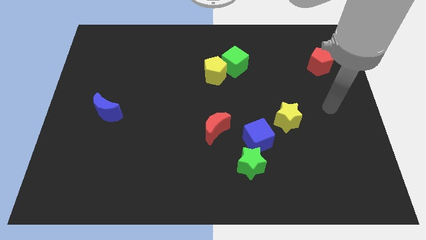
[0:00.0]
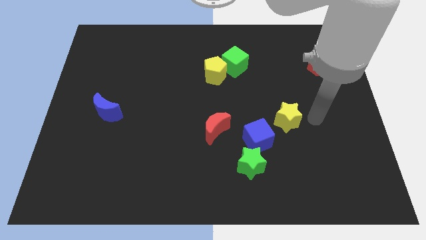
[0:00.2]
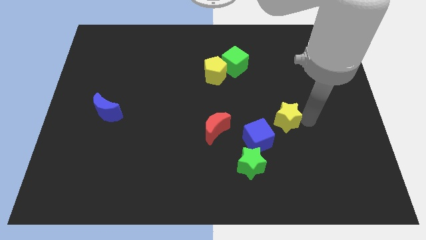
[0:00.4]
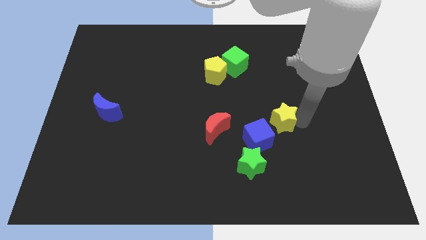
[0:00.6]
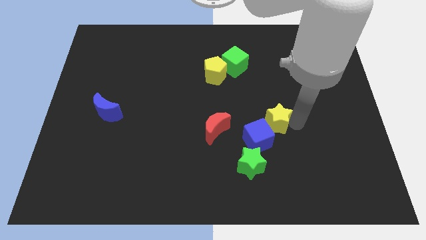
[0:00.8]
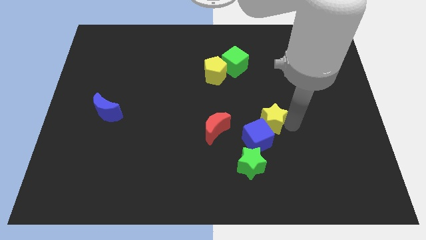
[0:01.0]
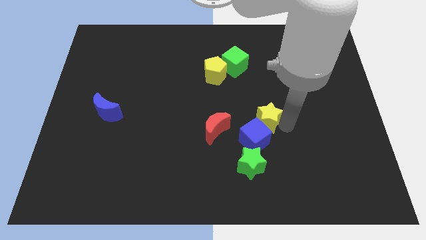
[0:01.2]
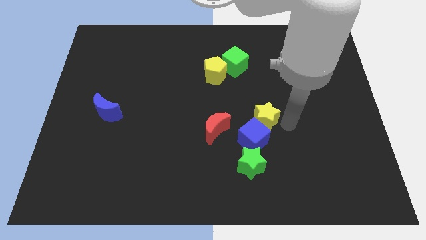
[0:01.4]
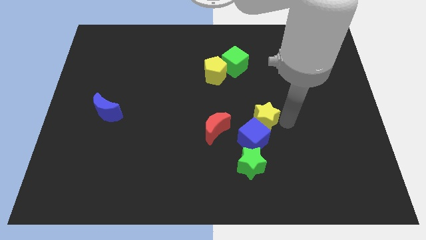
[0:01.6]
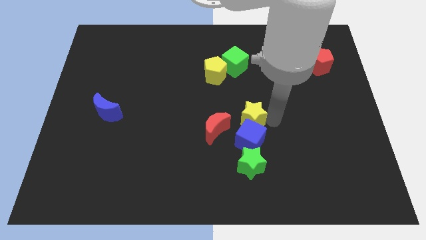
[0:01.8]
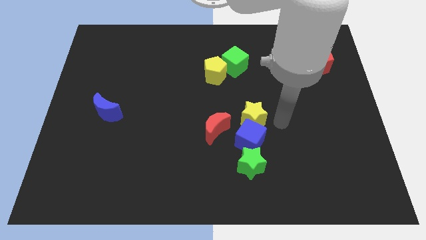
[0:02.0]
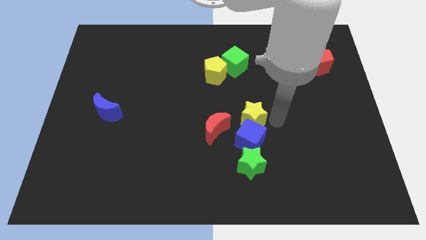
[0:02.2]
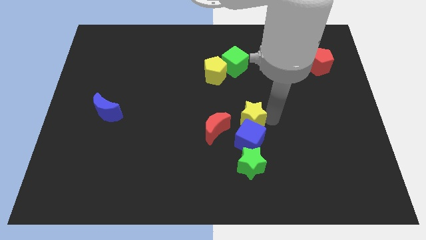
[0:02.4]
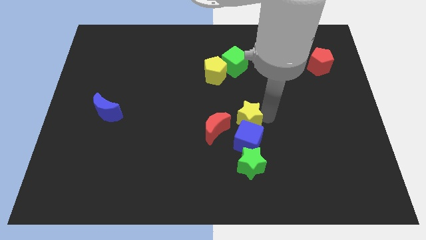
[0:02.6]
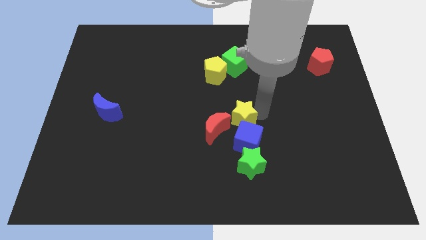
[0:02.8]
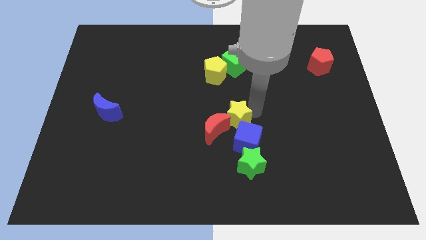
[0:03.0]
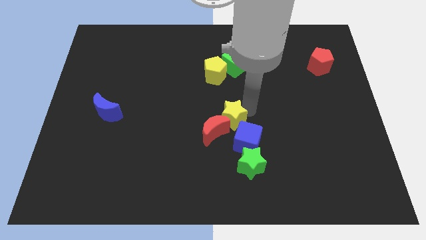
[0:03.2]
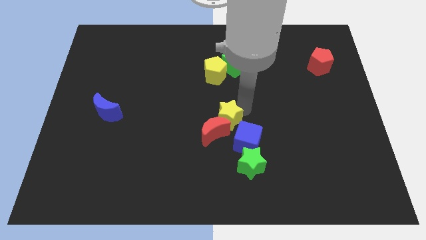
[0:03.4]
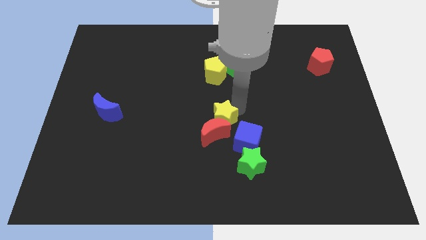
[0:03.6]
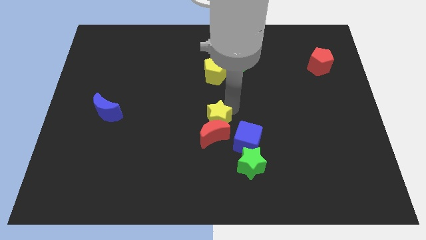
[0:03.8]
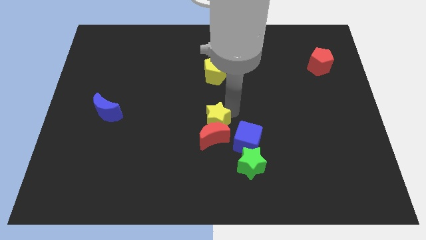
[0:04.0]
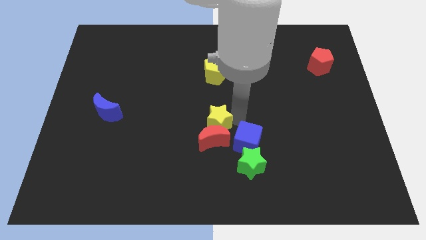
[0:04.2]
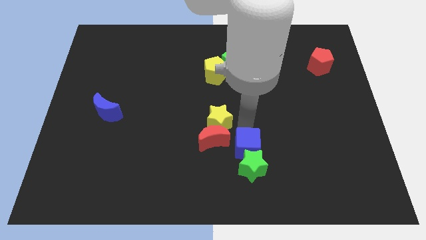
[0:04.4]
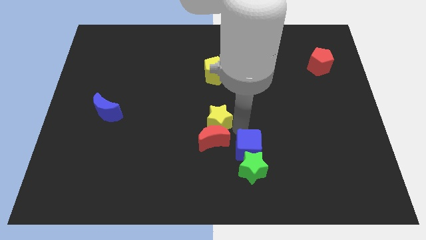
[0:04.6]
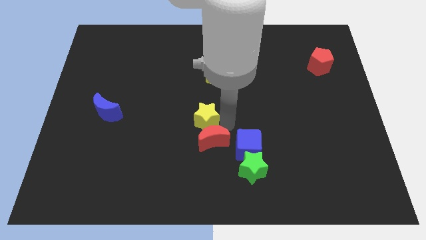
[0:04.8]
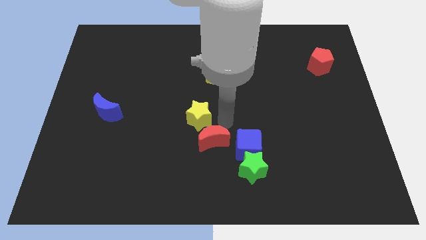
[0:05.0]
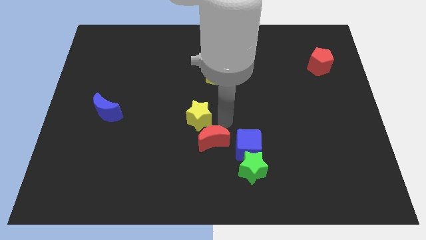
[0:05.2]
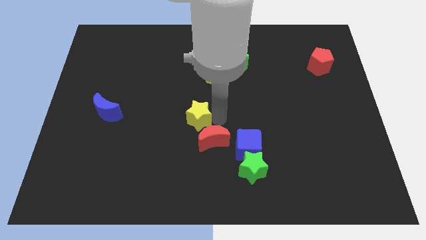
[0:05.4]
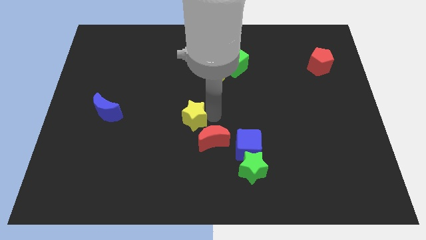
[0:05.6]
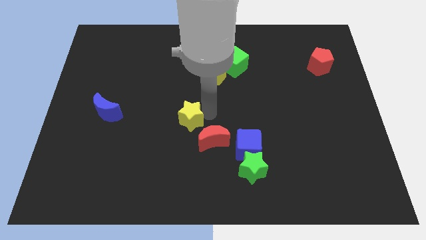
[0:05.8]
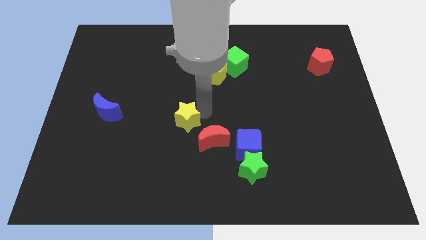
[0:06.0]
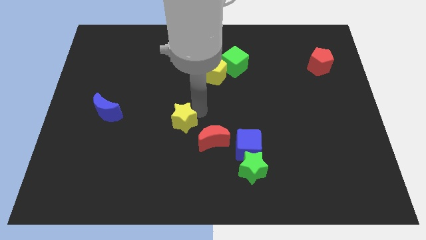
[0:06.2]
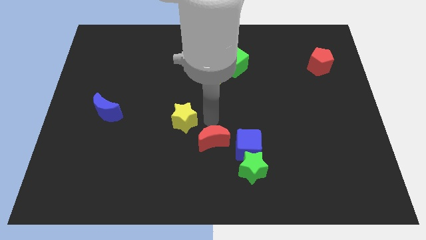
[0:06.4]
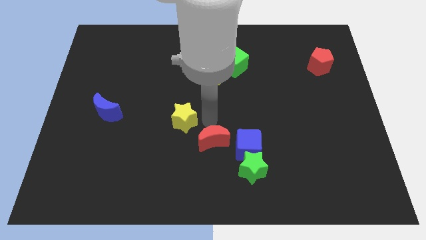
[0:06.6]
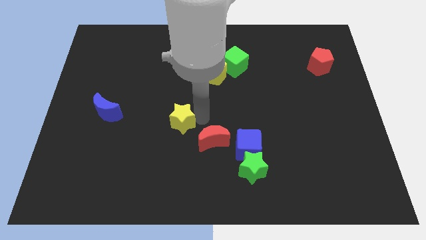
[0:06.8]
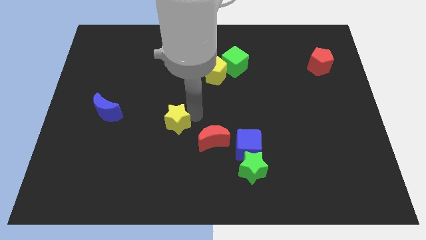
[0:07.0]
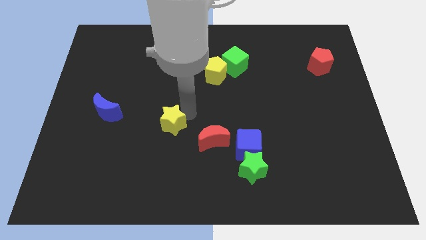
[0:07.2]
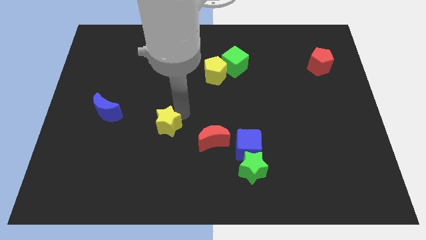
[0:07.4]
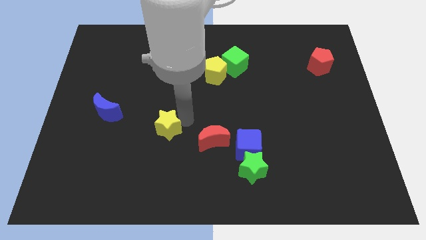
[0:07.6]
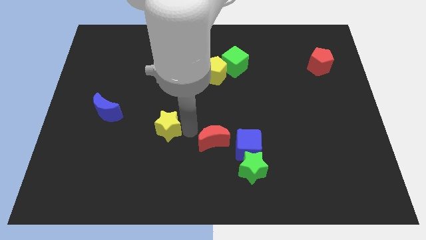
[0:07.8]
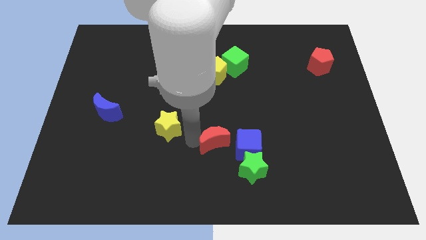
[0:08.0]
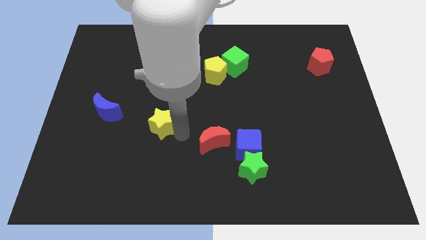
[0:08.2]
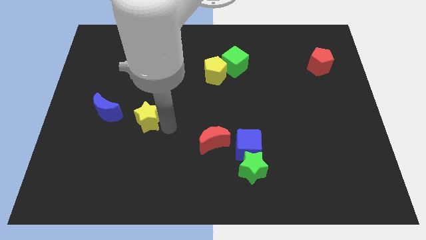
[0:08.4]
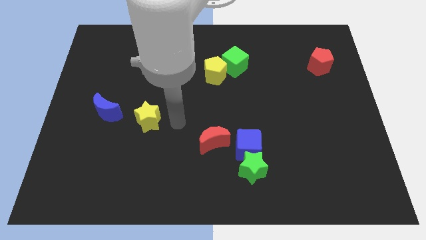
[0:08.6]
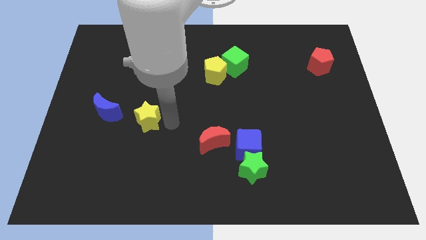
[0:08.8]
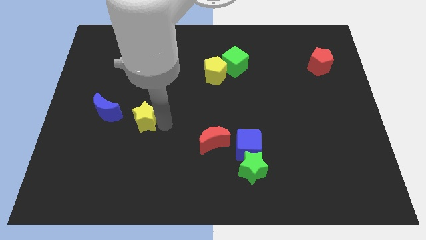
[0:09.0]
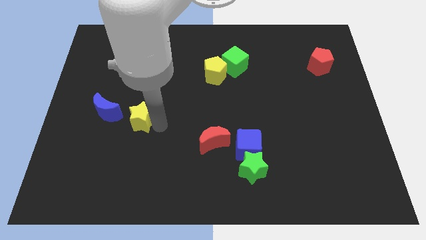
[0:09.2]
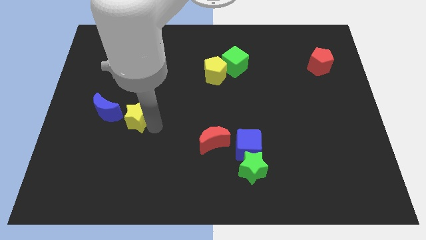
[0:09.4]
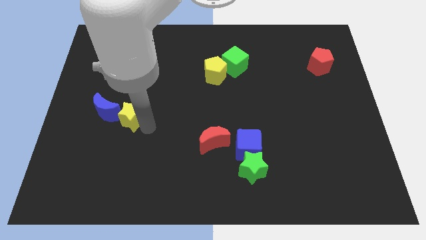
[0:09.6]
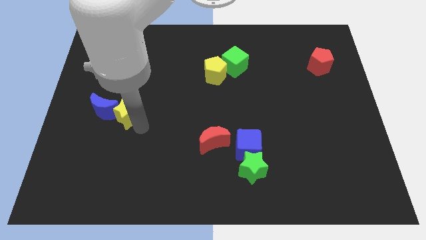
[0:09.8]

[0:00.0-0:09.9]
push the yellow star towards the blue moon

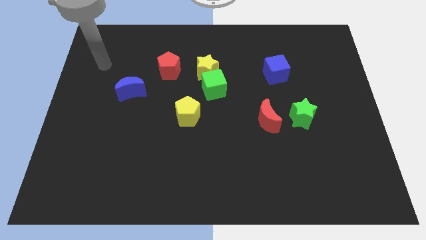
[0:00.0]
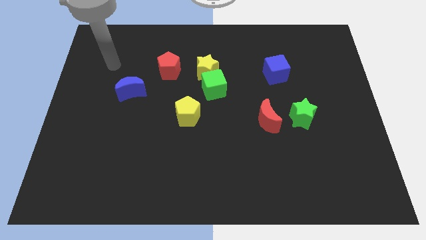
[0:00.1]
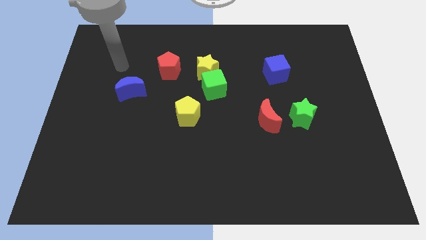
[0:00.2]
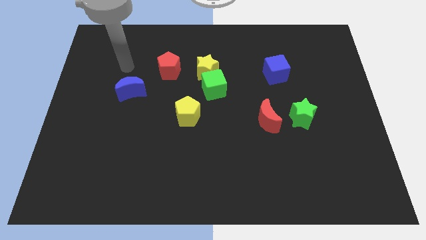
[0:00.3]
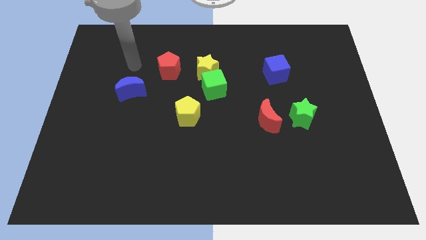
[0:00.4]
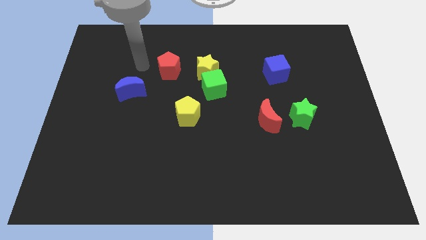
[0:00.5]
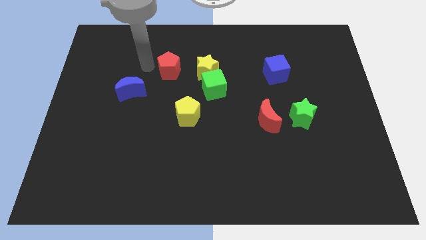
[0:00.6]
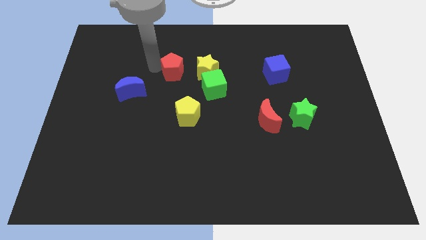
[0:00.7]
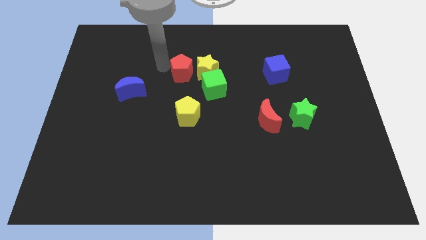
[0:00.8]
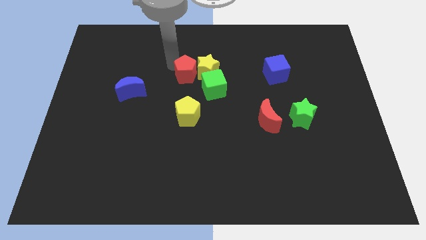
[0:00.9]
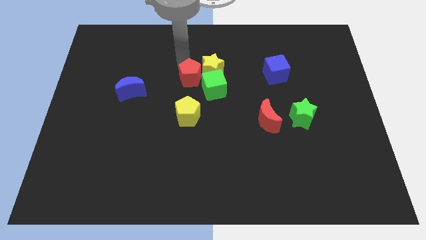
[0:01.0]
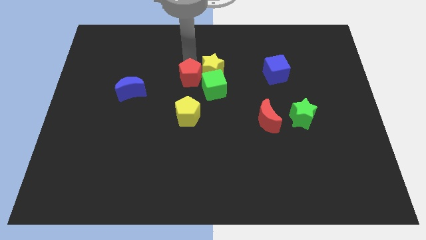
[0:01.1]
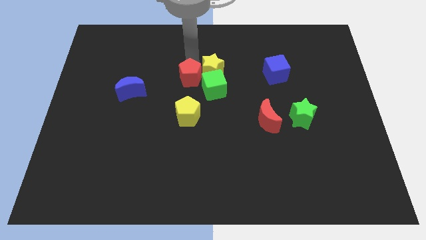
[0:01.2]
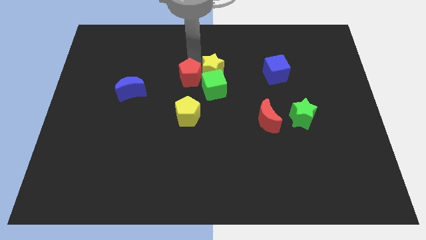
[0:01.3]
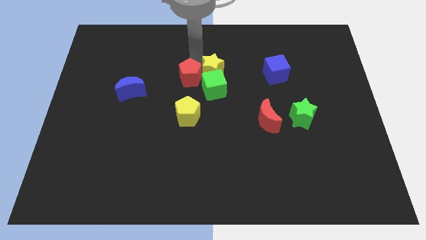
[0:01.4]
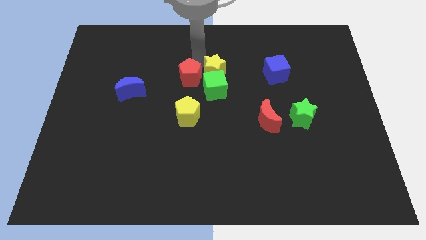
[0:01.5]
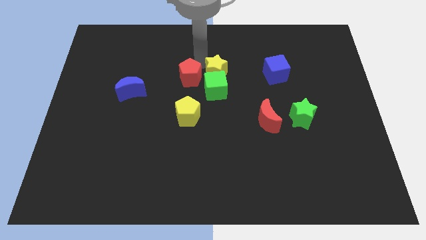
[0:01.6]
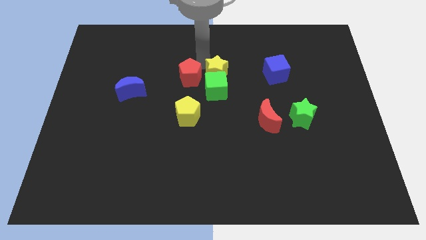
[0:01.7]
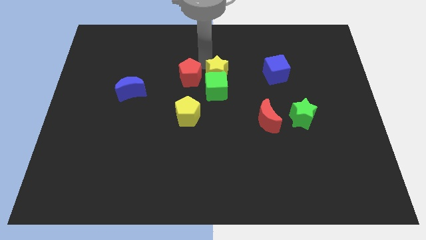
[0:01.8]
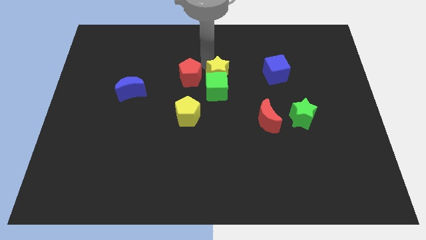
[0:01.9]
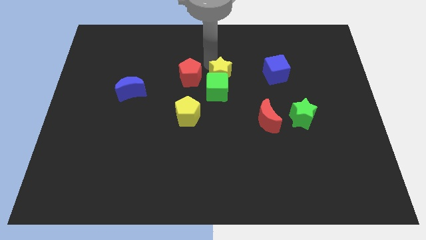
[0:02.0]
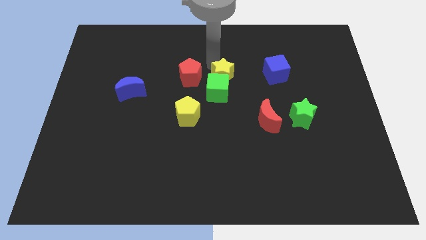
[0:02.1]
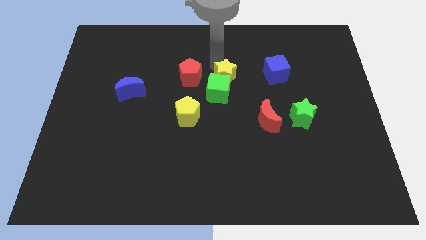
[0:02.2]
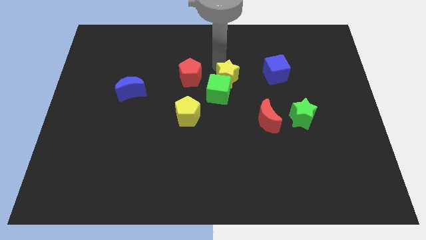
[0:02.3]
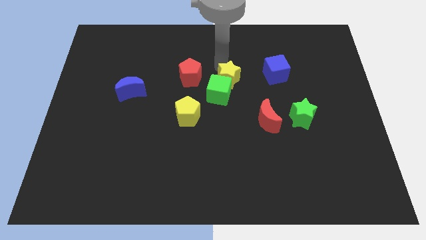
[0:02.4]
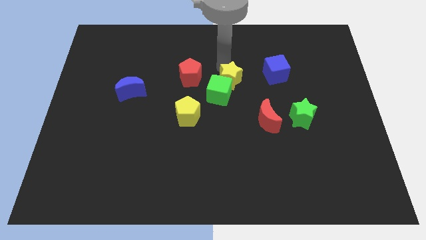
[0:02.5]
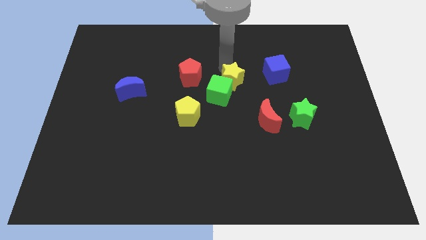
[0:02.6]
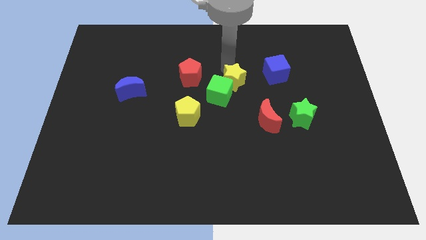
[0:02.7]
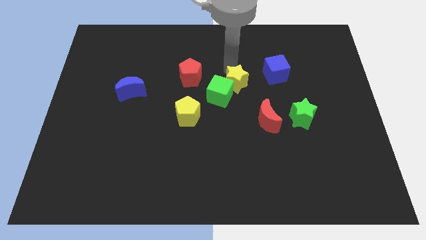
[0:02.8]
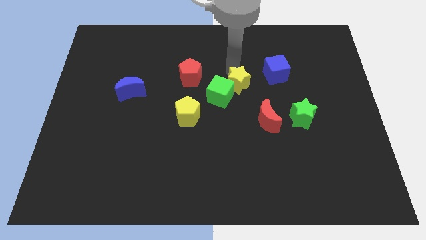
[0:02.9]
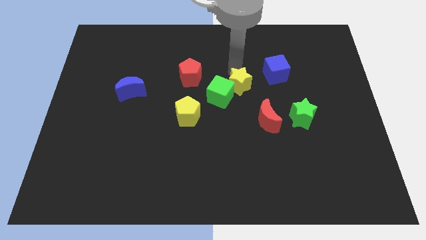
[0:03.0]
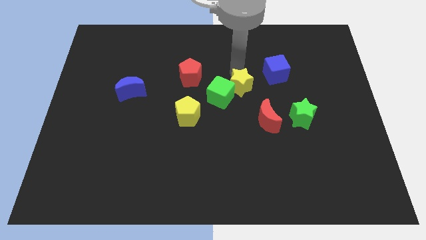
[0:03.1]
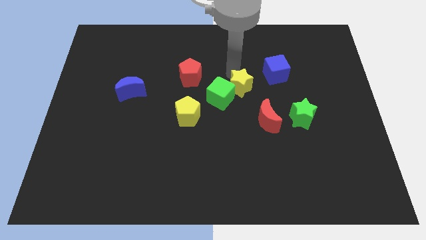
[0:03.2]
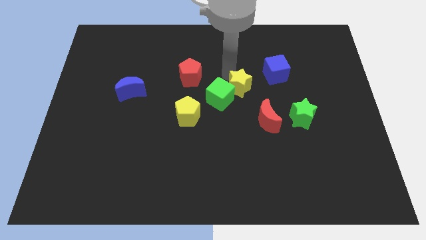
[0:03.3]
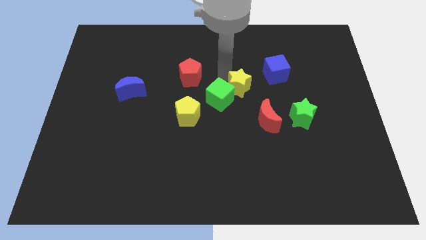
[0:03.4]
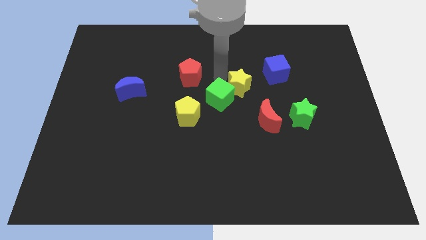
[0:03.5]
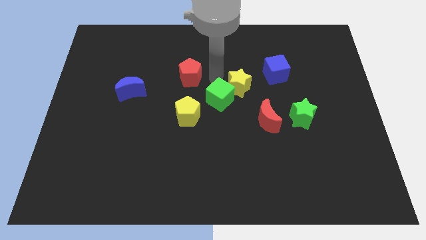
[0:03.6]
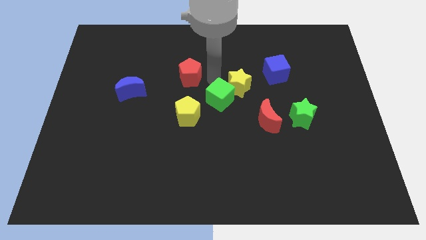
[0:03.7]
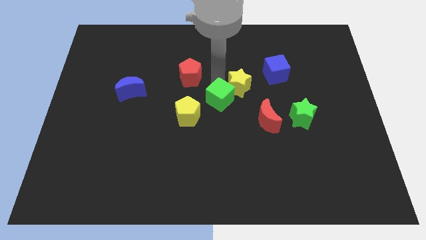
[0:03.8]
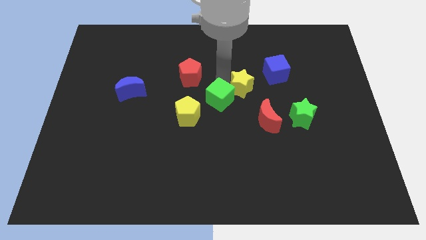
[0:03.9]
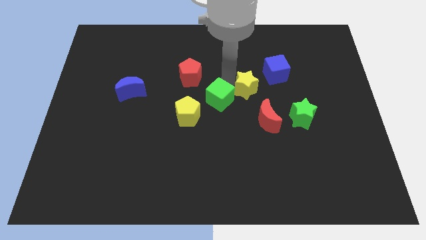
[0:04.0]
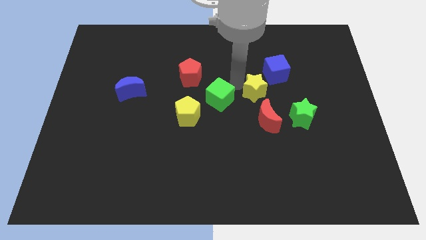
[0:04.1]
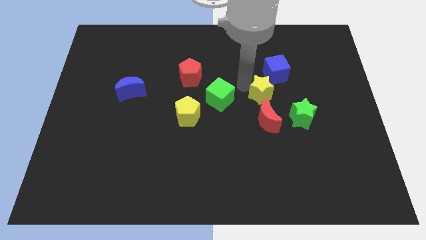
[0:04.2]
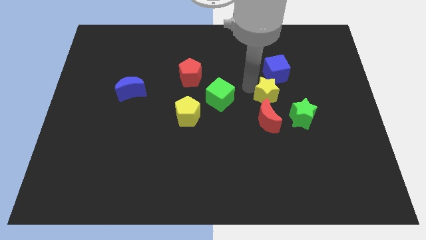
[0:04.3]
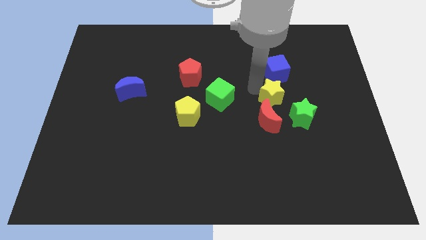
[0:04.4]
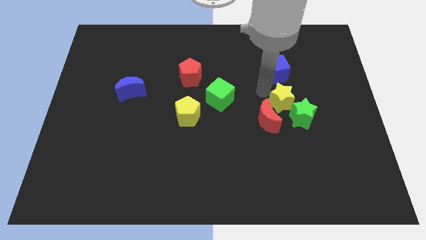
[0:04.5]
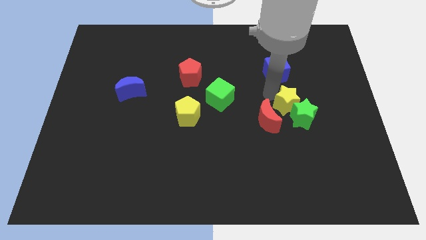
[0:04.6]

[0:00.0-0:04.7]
push the yellow star close to the green star
